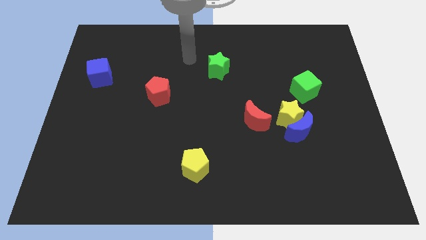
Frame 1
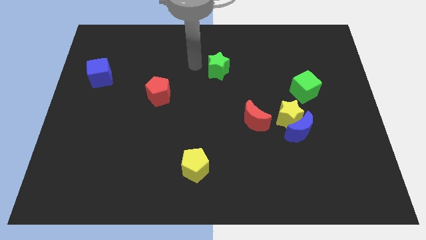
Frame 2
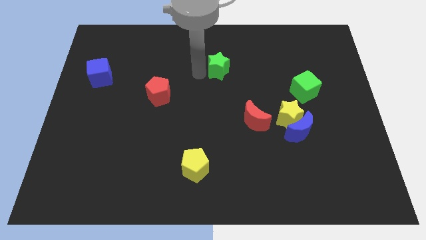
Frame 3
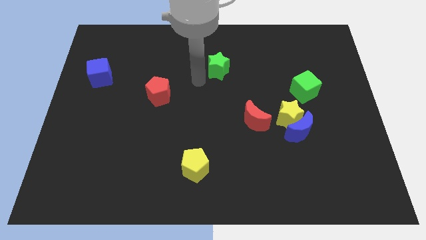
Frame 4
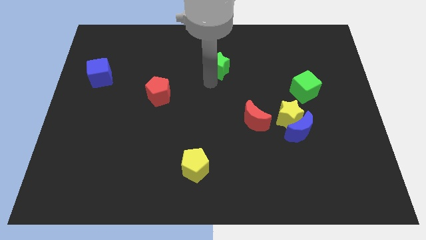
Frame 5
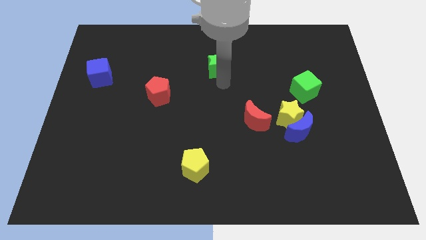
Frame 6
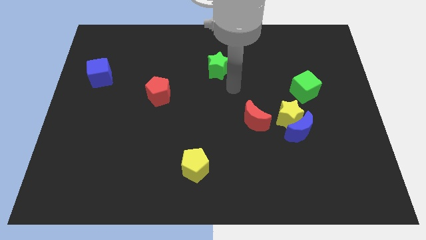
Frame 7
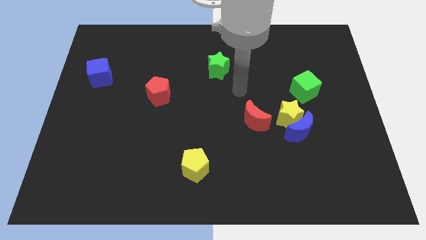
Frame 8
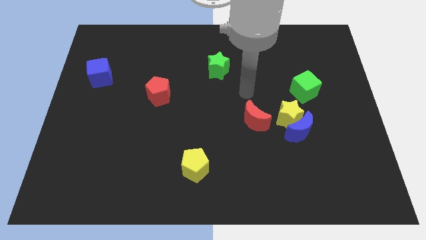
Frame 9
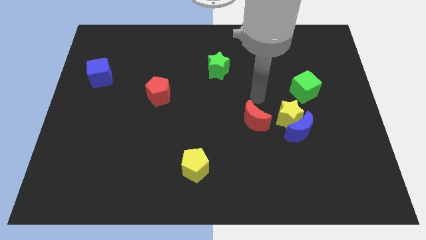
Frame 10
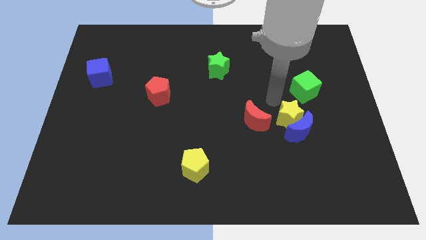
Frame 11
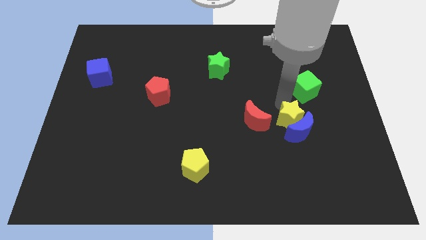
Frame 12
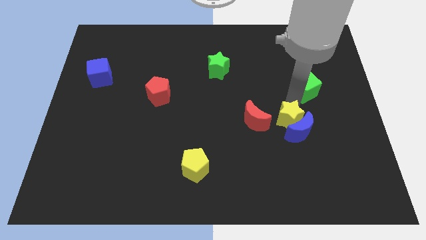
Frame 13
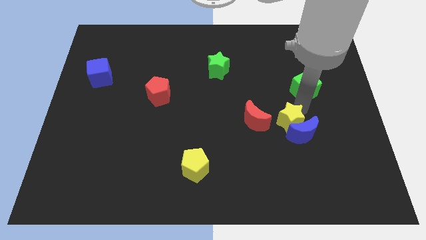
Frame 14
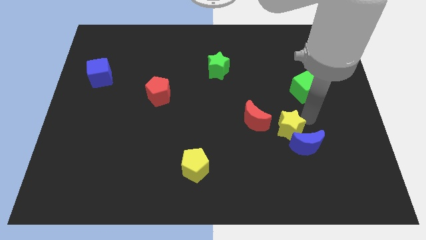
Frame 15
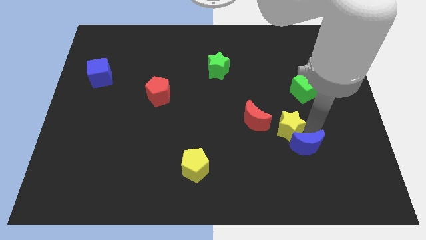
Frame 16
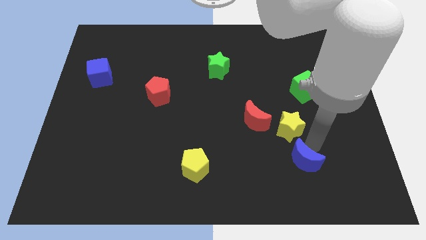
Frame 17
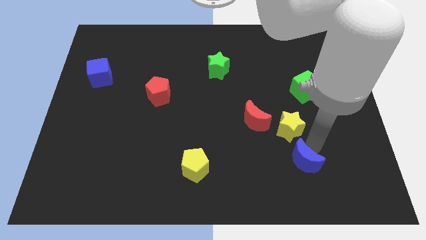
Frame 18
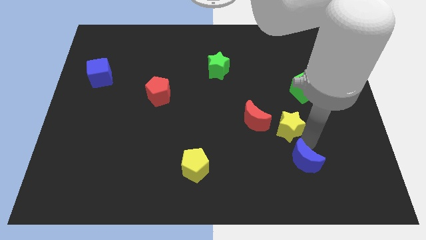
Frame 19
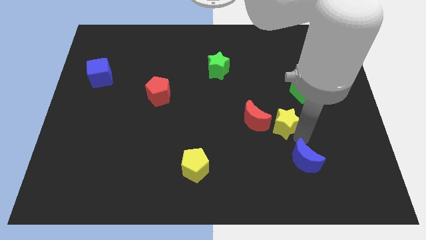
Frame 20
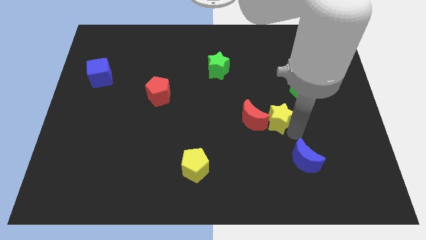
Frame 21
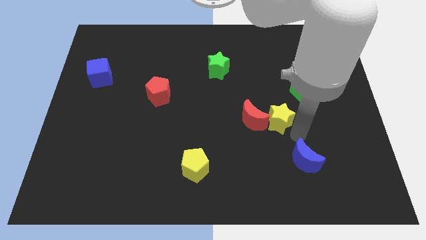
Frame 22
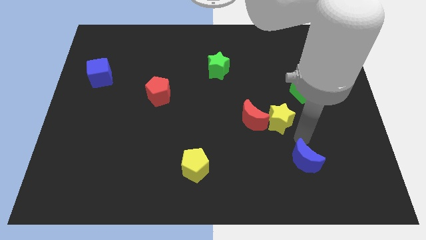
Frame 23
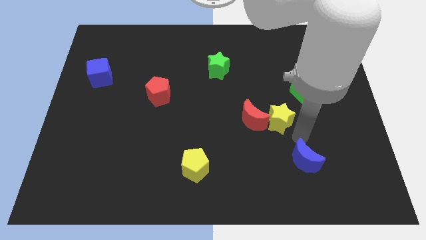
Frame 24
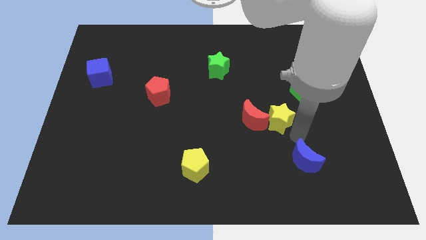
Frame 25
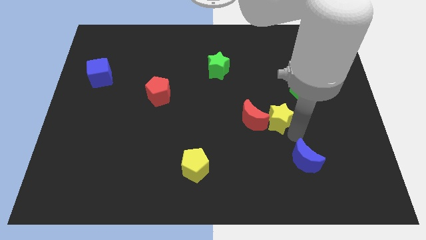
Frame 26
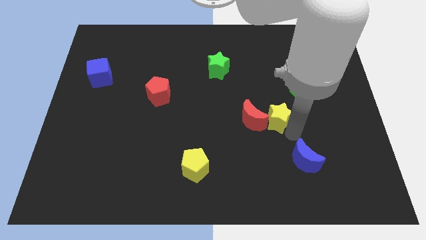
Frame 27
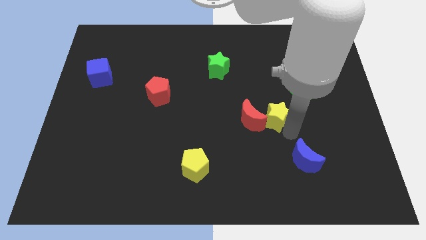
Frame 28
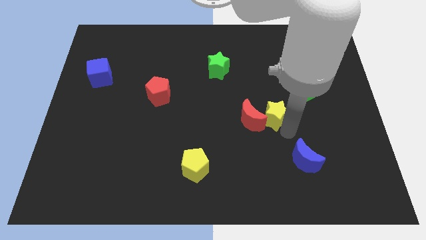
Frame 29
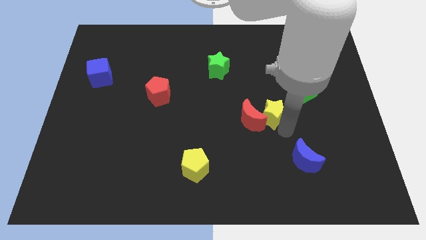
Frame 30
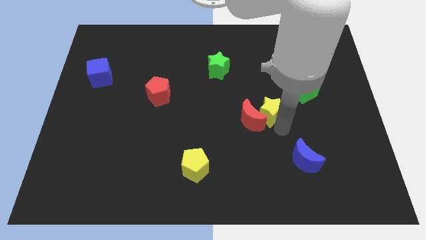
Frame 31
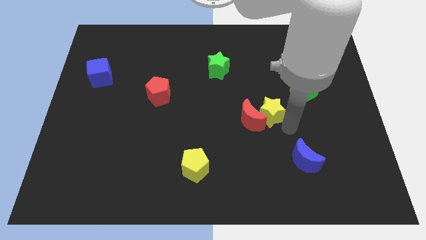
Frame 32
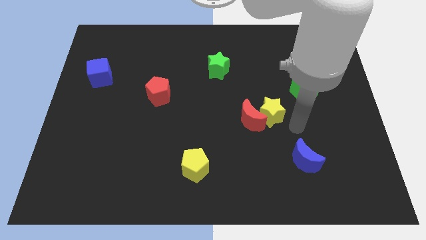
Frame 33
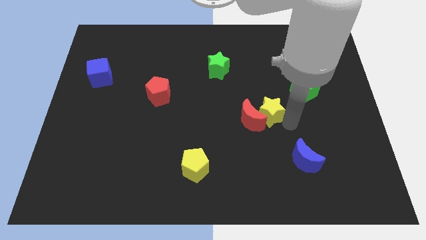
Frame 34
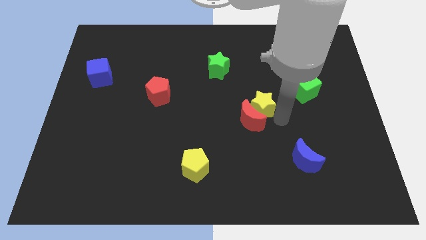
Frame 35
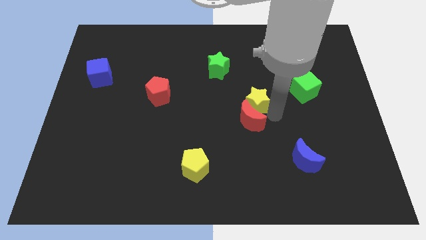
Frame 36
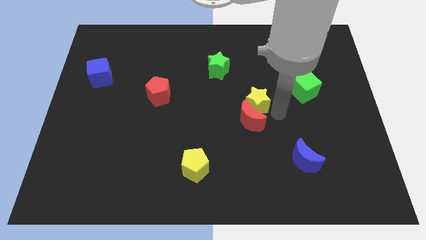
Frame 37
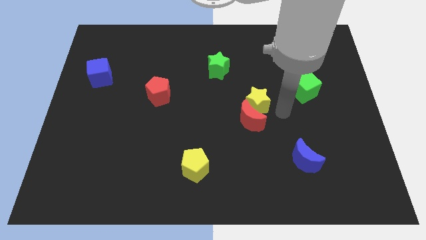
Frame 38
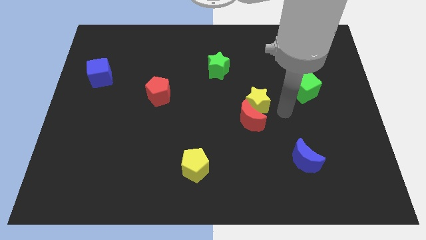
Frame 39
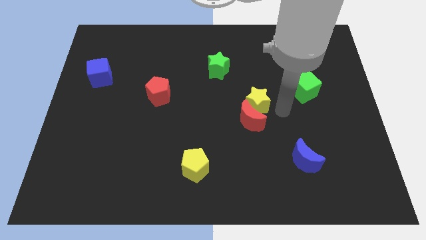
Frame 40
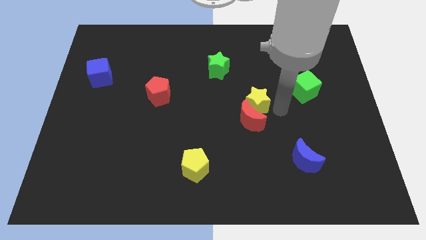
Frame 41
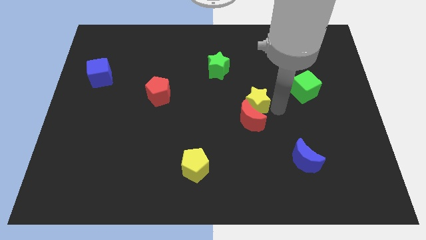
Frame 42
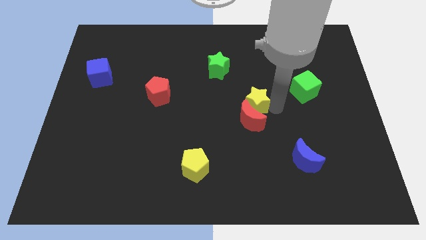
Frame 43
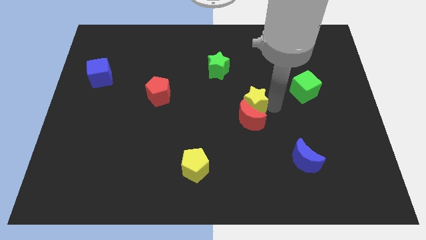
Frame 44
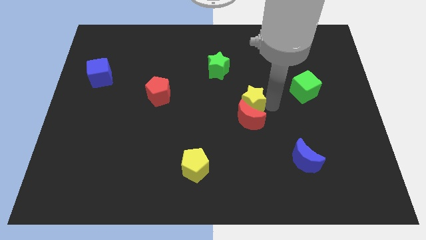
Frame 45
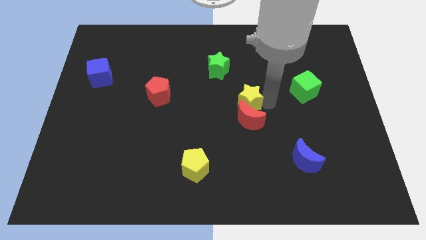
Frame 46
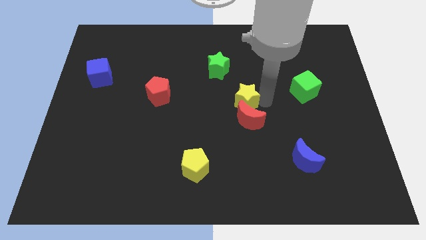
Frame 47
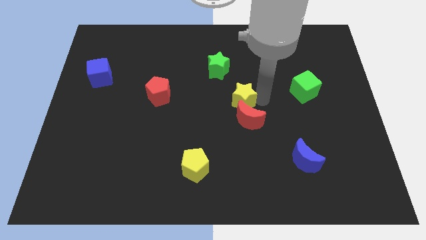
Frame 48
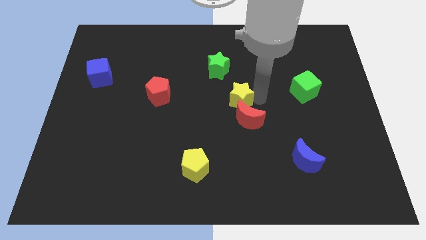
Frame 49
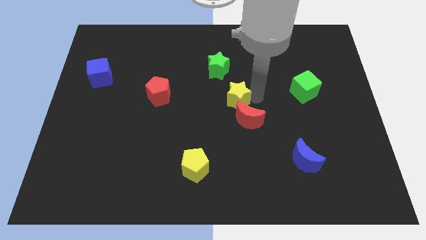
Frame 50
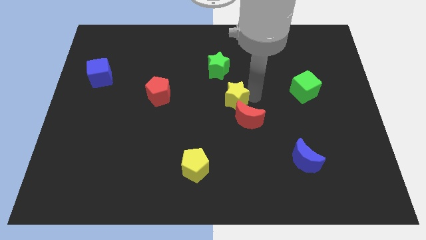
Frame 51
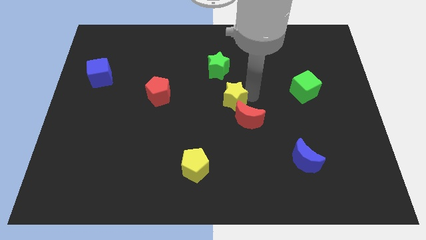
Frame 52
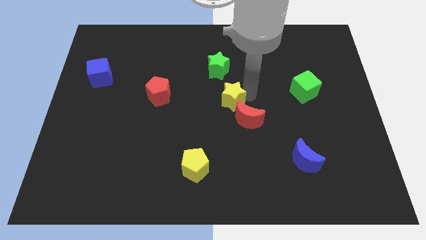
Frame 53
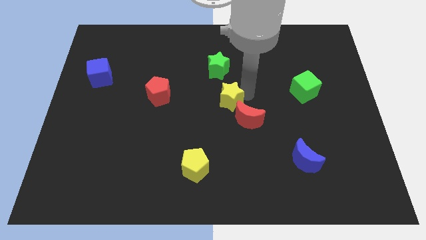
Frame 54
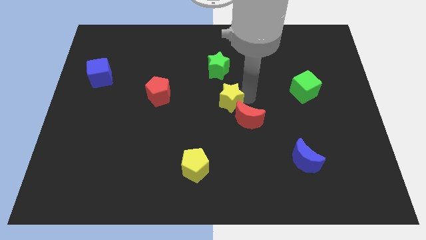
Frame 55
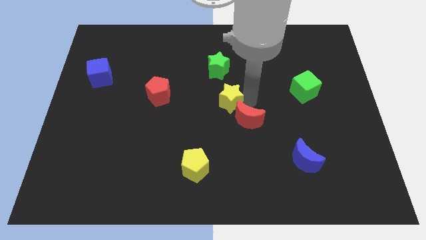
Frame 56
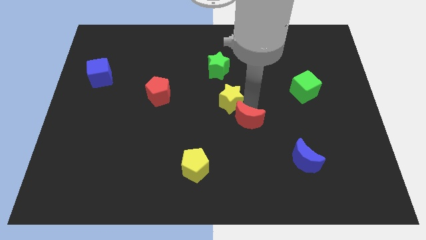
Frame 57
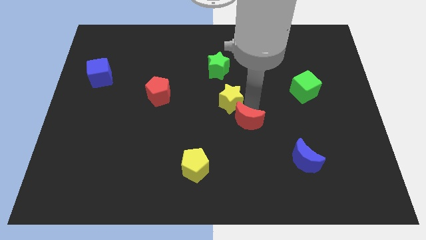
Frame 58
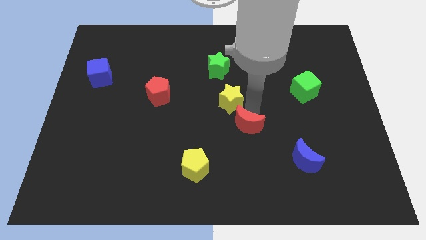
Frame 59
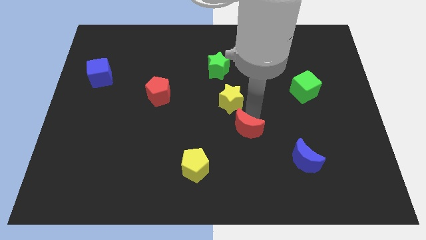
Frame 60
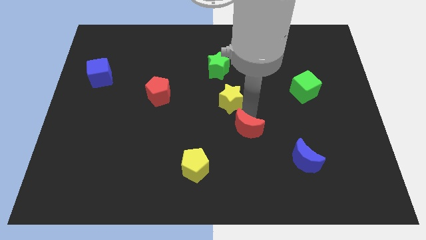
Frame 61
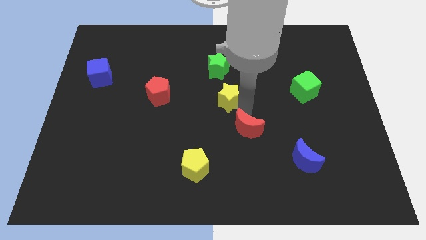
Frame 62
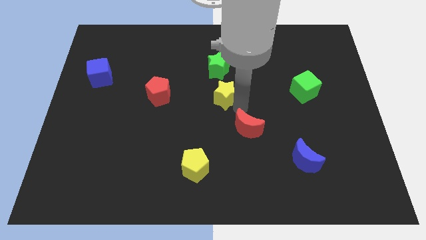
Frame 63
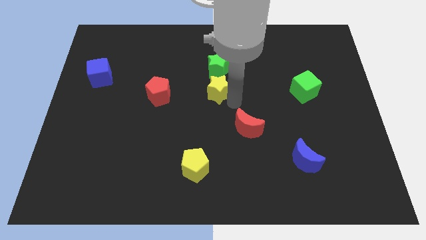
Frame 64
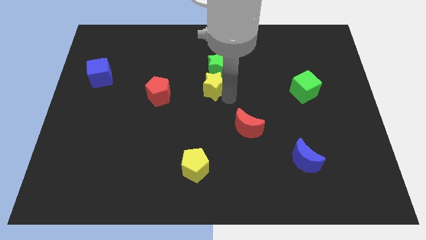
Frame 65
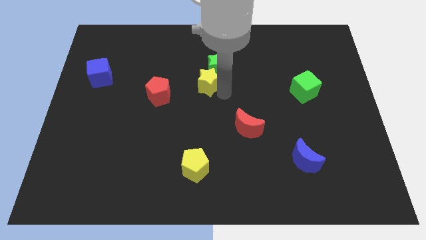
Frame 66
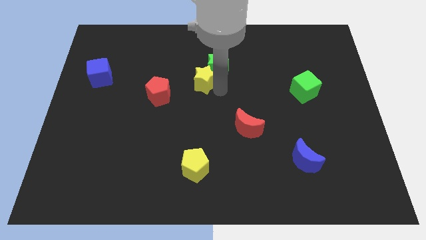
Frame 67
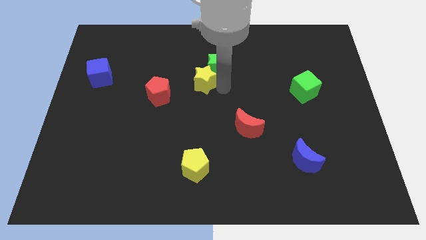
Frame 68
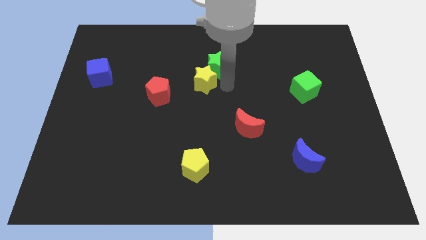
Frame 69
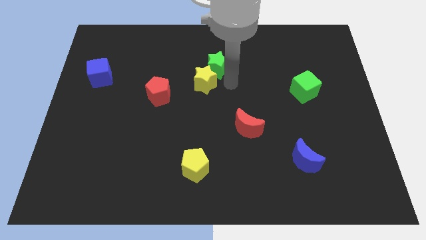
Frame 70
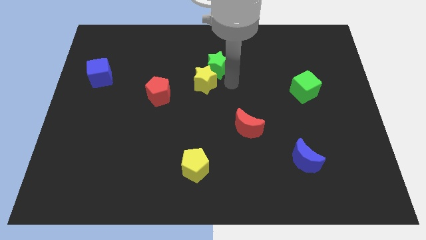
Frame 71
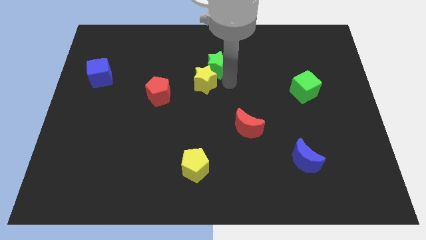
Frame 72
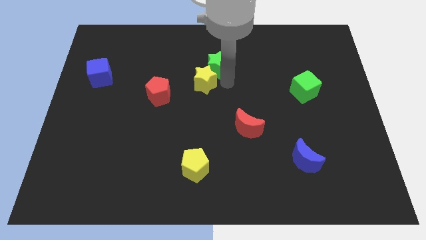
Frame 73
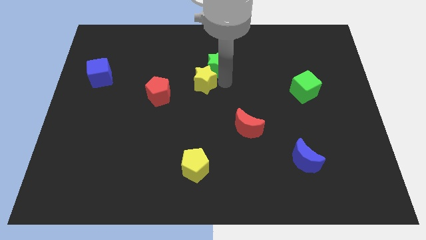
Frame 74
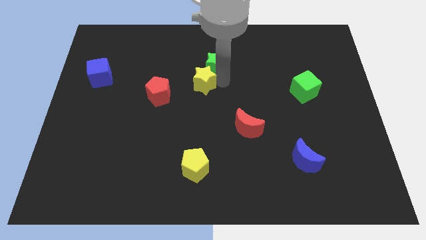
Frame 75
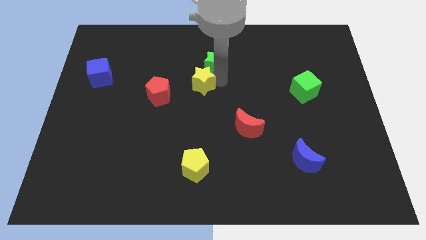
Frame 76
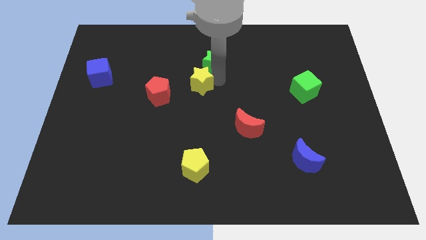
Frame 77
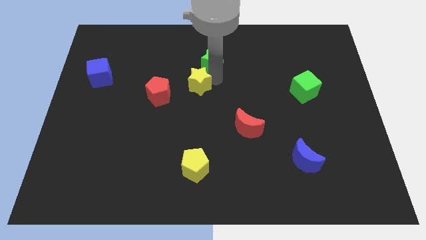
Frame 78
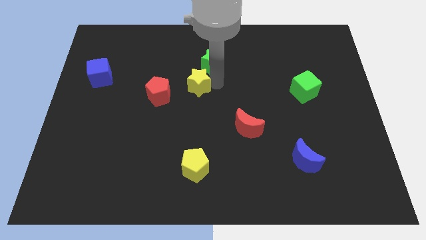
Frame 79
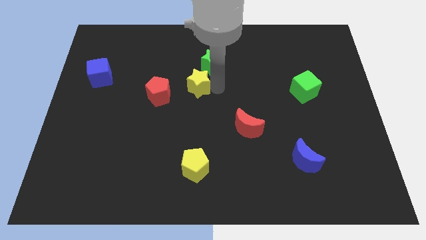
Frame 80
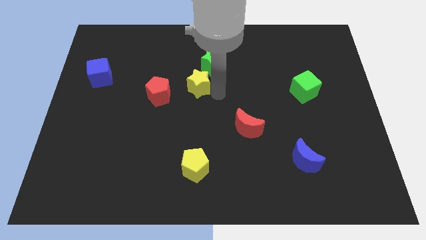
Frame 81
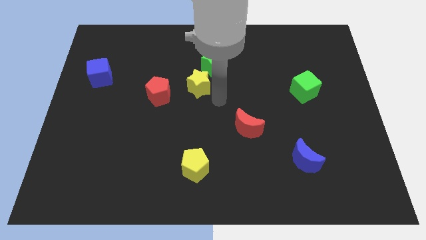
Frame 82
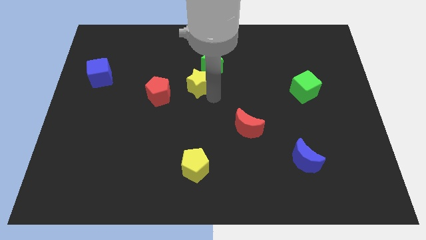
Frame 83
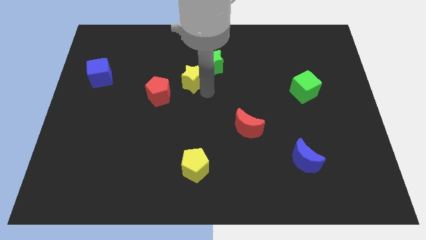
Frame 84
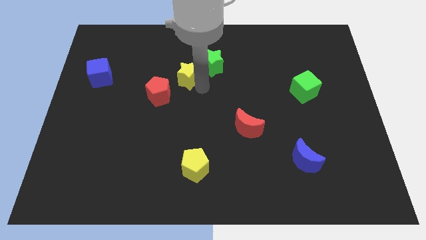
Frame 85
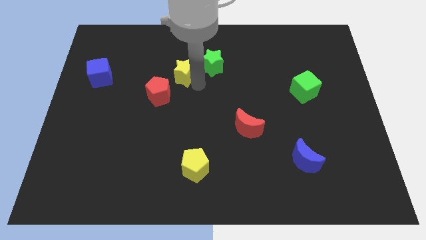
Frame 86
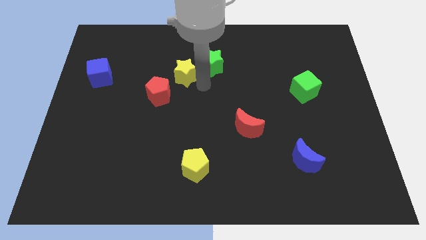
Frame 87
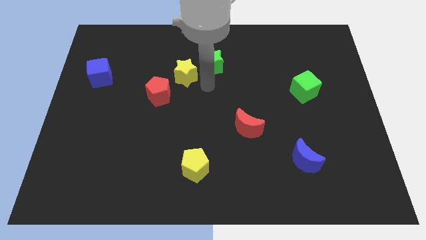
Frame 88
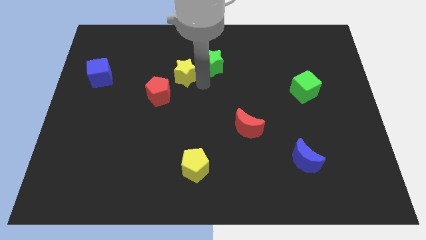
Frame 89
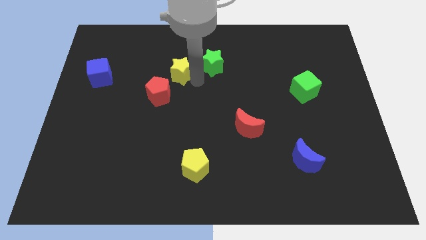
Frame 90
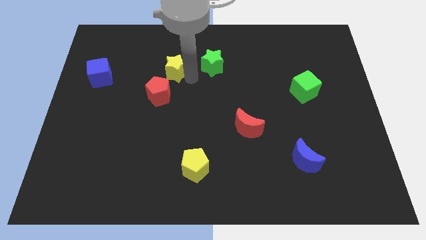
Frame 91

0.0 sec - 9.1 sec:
put the yellow star to the top side of the red pentagon
